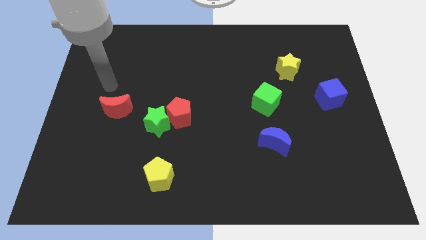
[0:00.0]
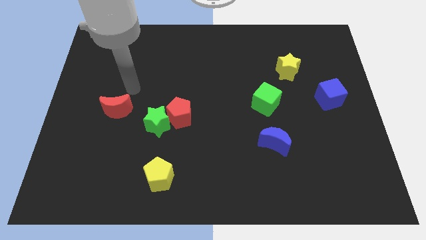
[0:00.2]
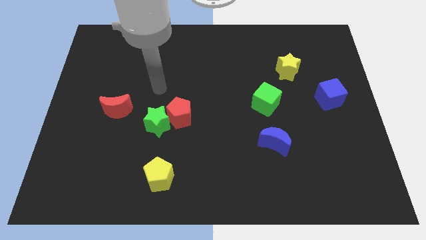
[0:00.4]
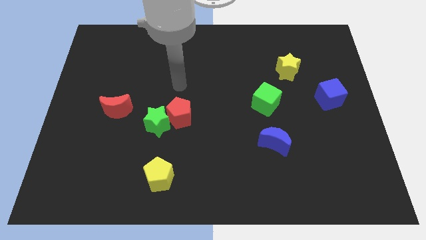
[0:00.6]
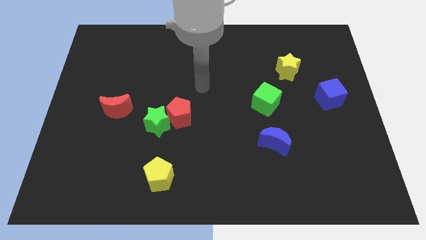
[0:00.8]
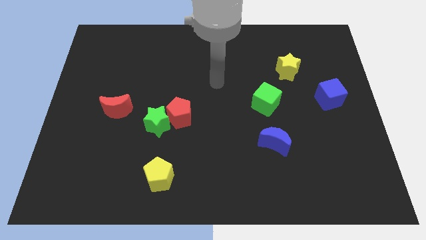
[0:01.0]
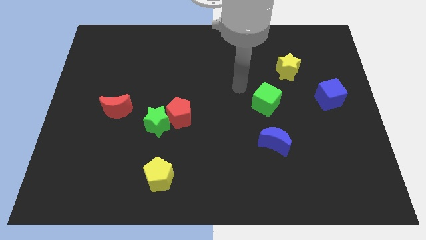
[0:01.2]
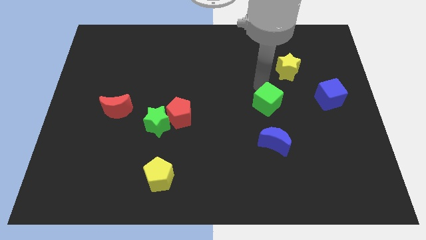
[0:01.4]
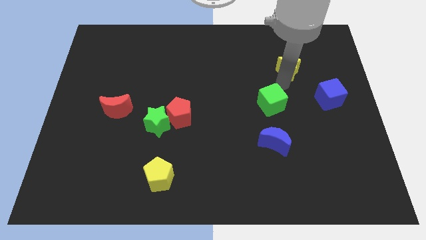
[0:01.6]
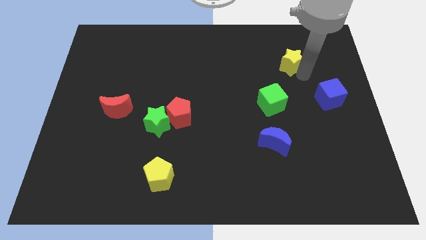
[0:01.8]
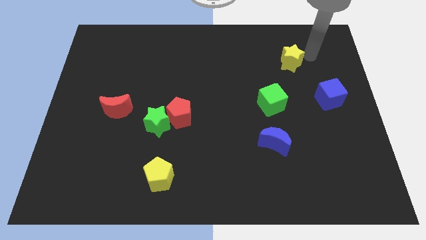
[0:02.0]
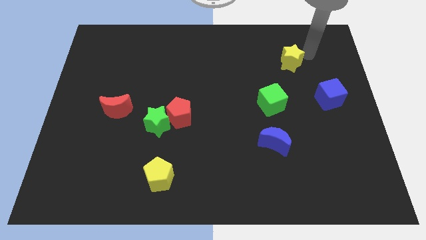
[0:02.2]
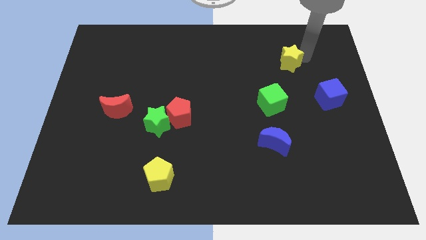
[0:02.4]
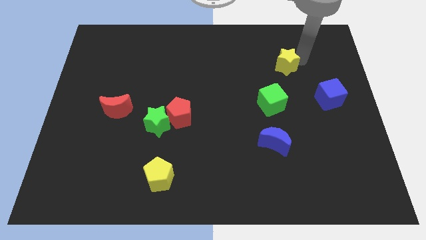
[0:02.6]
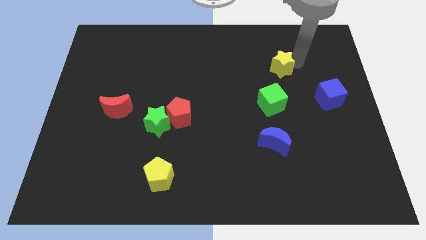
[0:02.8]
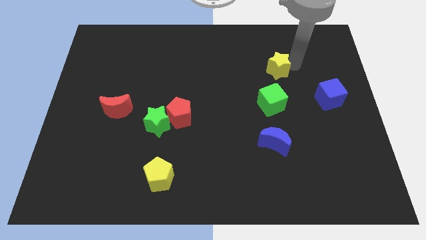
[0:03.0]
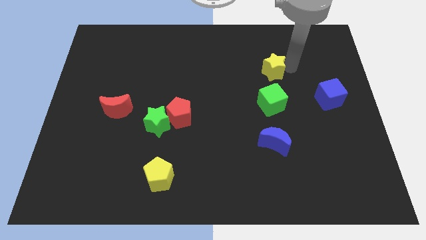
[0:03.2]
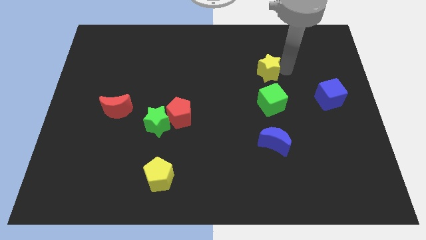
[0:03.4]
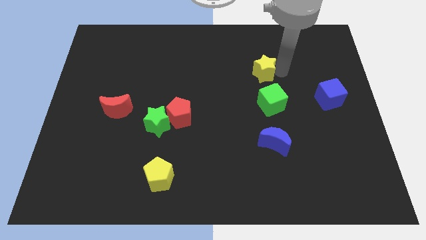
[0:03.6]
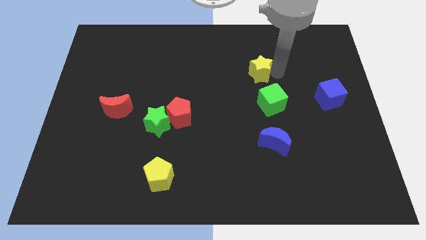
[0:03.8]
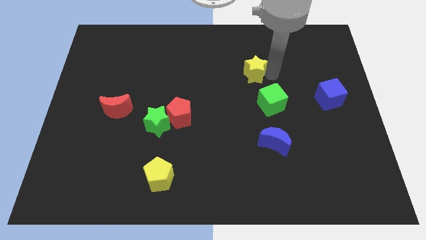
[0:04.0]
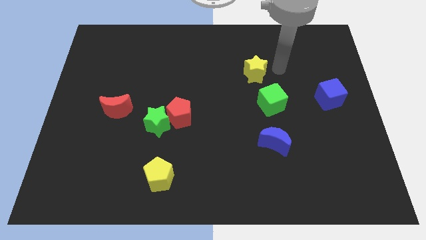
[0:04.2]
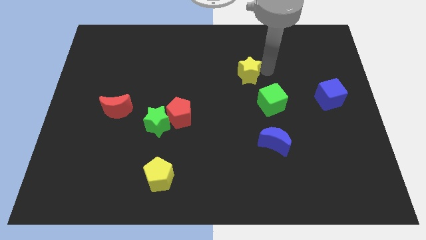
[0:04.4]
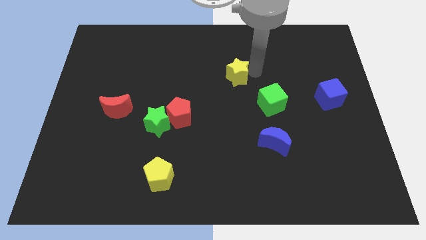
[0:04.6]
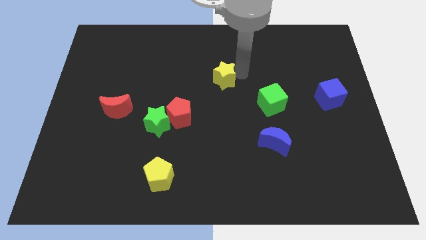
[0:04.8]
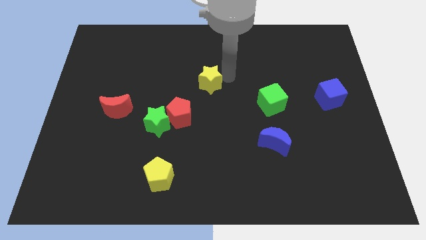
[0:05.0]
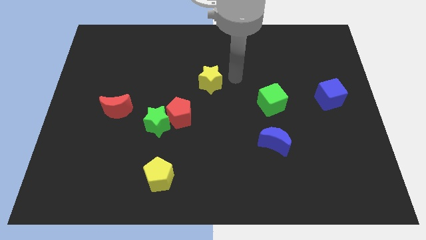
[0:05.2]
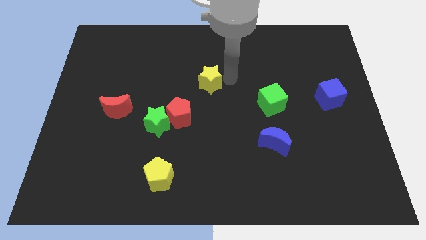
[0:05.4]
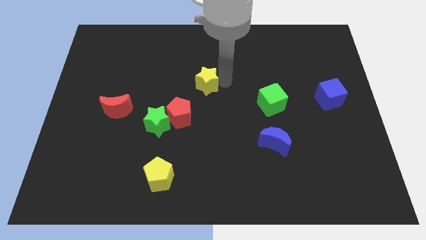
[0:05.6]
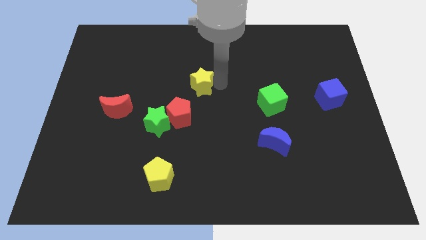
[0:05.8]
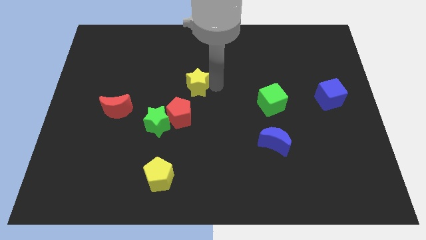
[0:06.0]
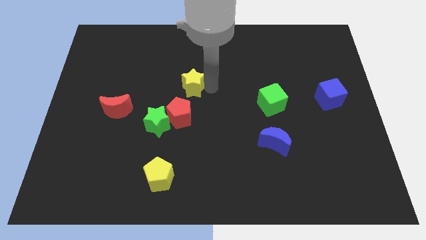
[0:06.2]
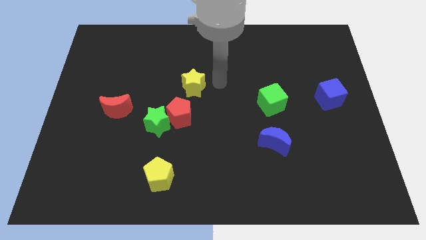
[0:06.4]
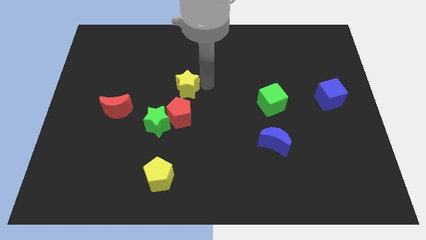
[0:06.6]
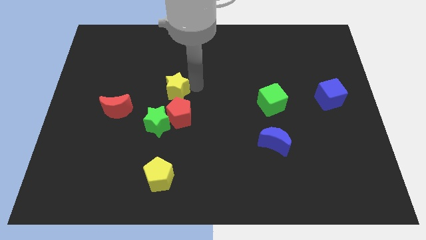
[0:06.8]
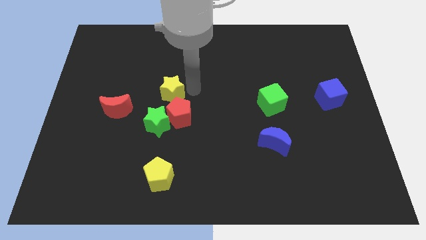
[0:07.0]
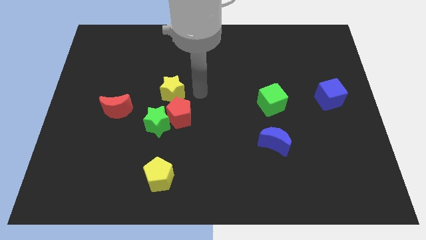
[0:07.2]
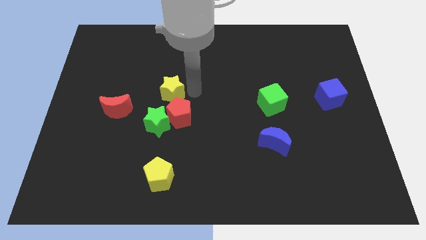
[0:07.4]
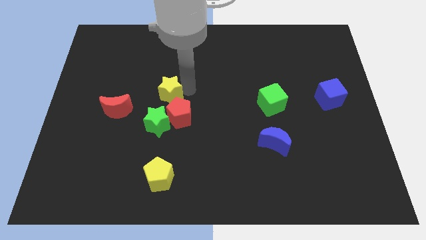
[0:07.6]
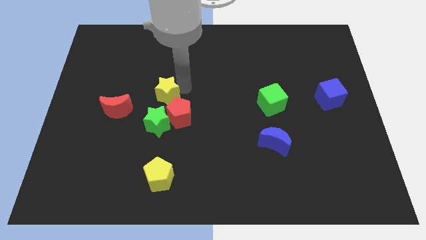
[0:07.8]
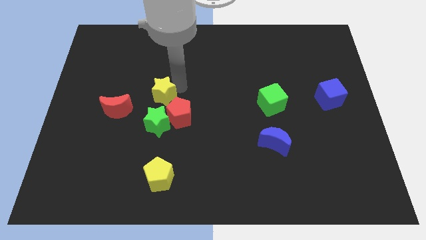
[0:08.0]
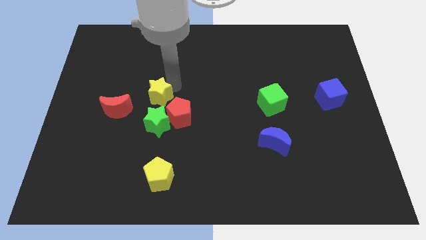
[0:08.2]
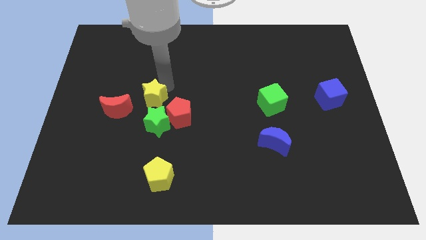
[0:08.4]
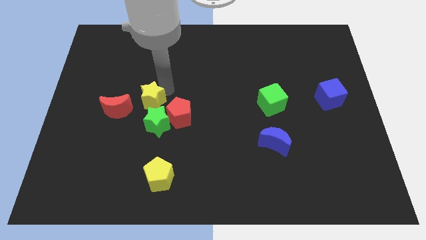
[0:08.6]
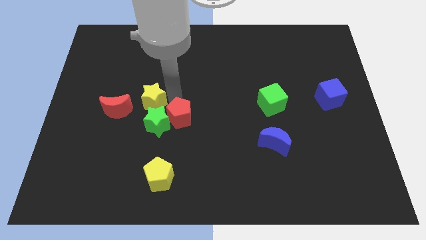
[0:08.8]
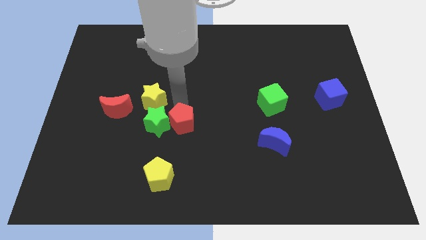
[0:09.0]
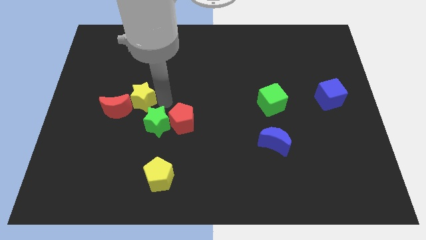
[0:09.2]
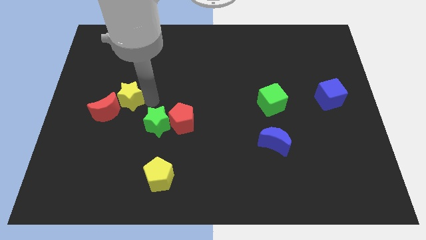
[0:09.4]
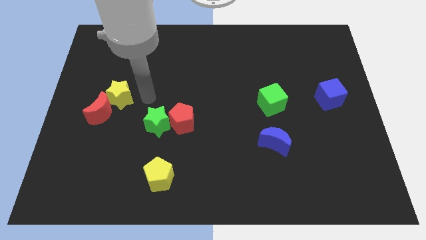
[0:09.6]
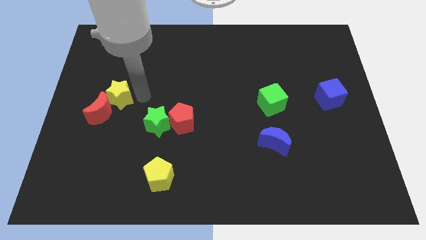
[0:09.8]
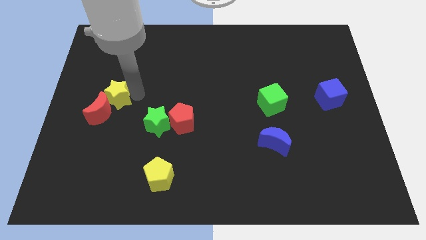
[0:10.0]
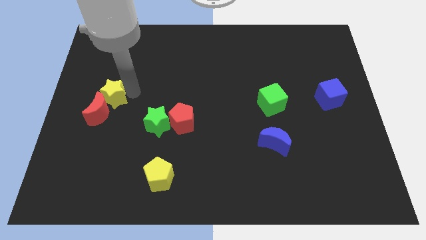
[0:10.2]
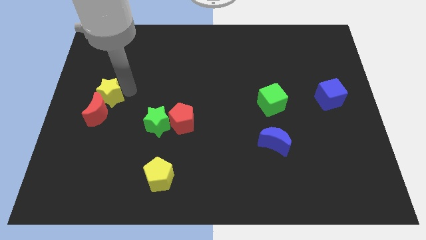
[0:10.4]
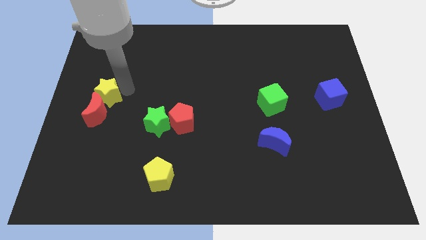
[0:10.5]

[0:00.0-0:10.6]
slide the yellow star to the center left

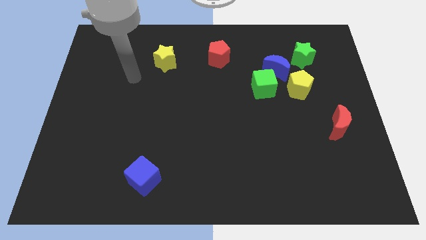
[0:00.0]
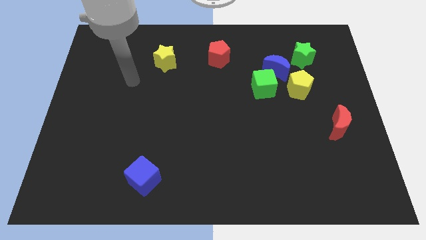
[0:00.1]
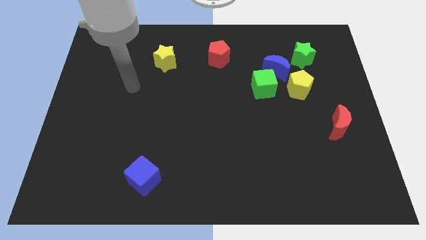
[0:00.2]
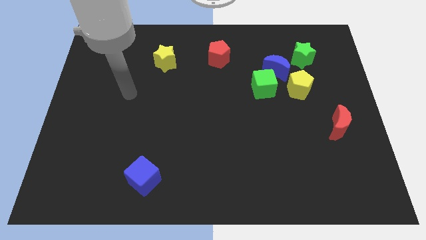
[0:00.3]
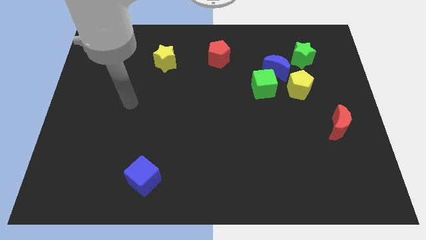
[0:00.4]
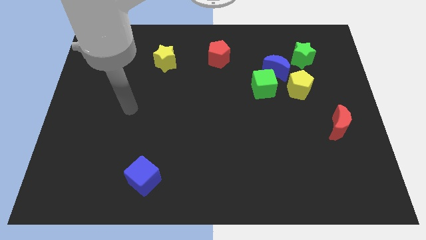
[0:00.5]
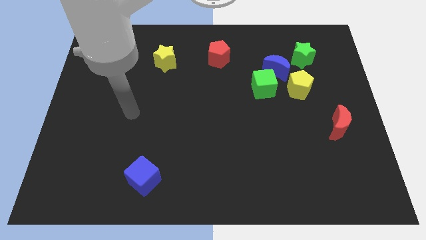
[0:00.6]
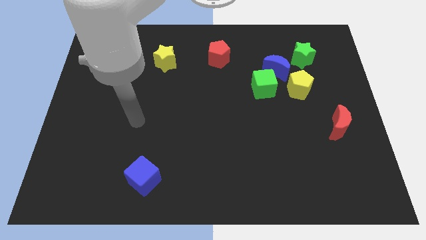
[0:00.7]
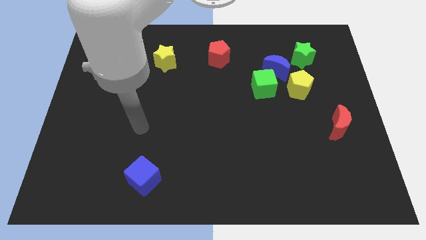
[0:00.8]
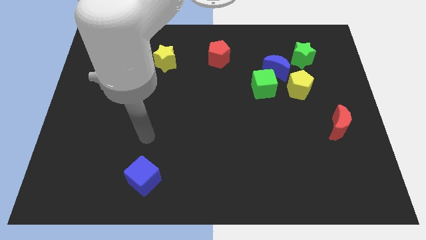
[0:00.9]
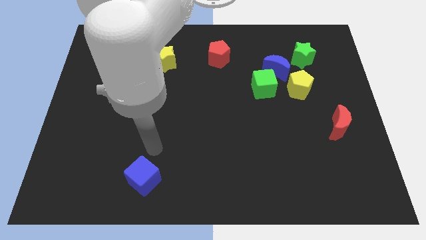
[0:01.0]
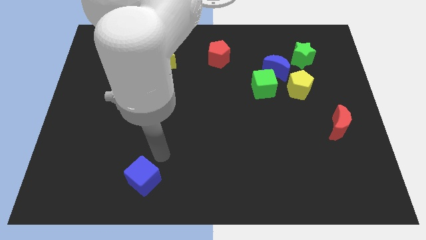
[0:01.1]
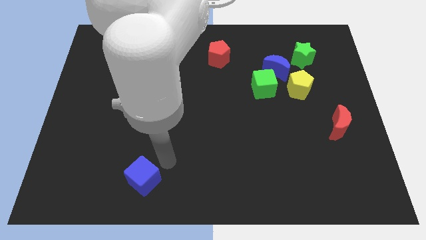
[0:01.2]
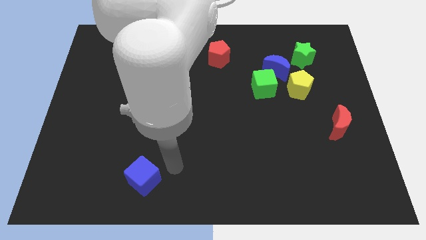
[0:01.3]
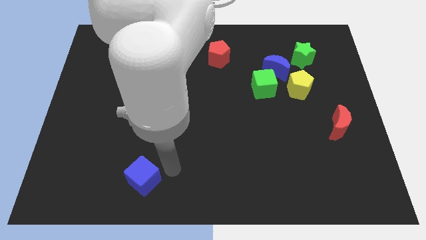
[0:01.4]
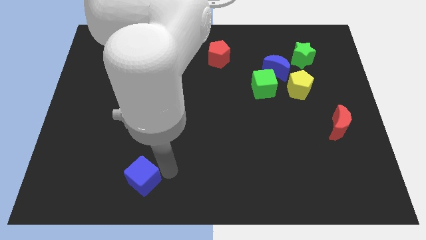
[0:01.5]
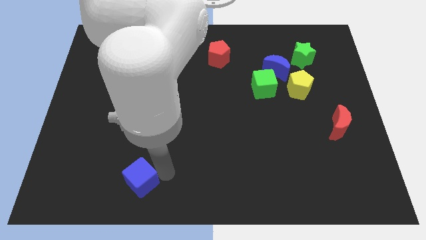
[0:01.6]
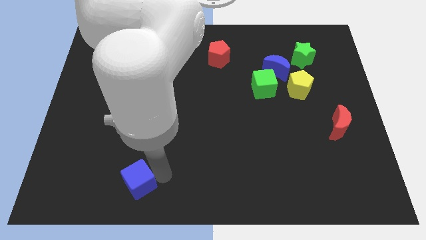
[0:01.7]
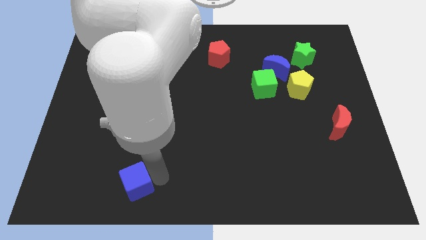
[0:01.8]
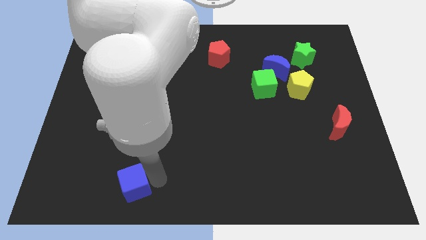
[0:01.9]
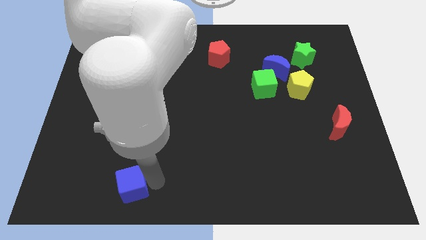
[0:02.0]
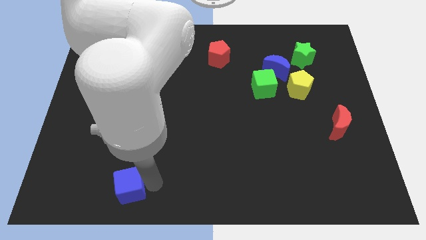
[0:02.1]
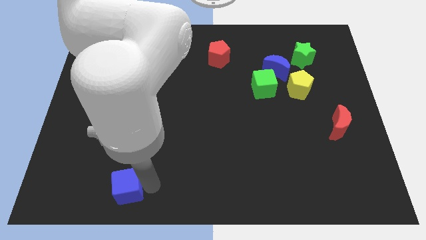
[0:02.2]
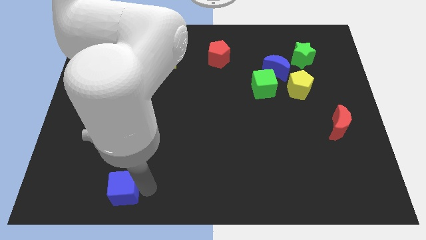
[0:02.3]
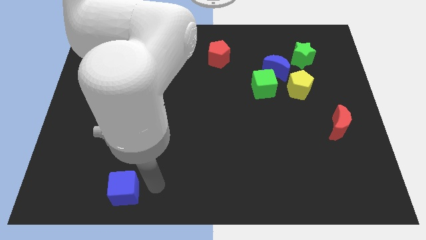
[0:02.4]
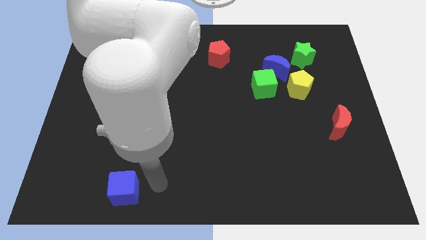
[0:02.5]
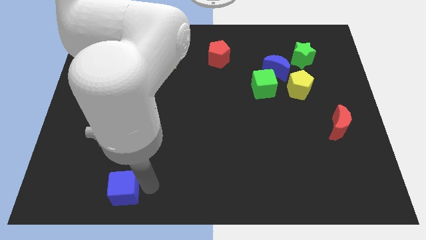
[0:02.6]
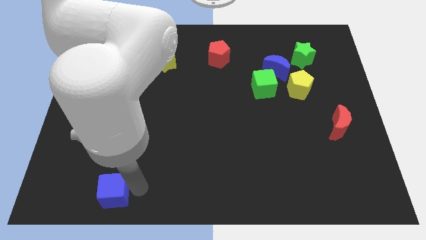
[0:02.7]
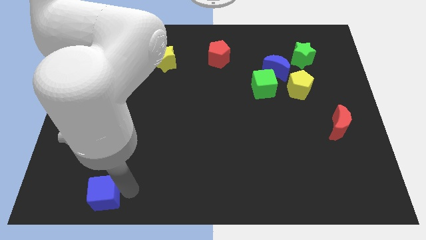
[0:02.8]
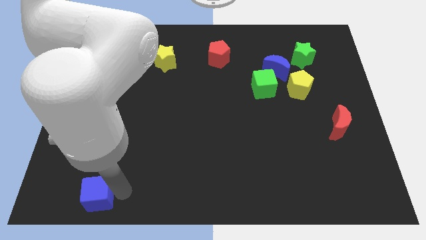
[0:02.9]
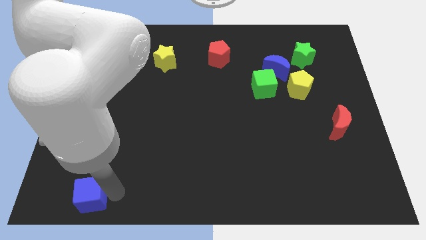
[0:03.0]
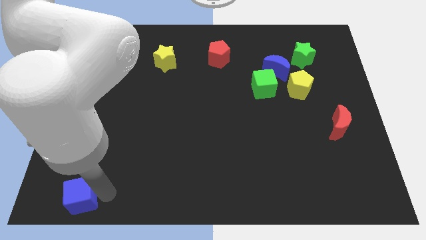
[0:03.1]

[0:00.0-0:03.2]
push the blue cube to the bottom left corner
